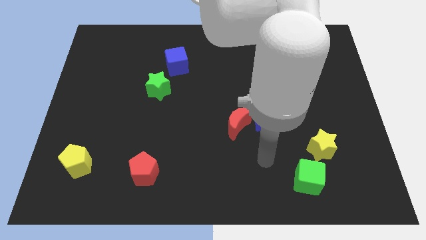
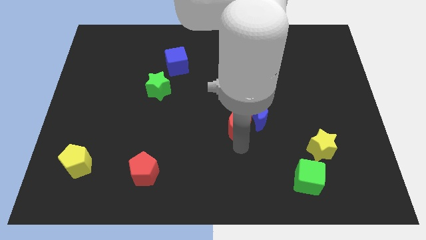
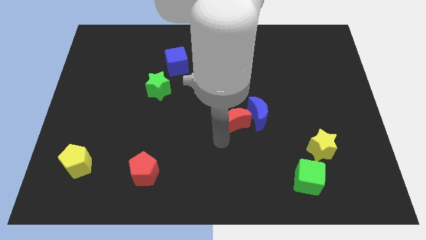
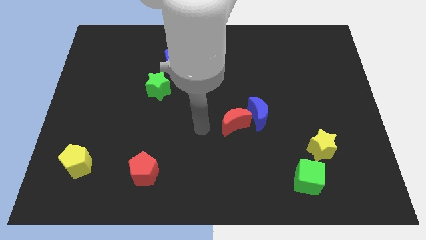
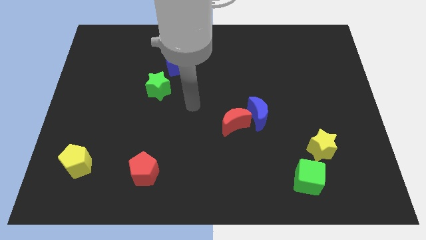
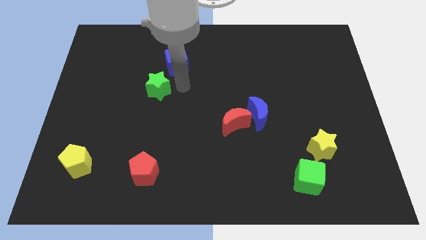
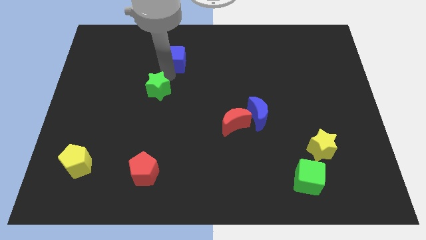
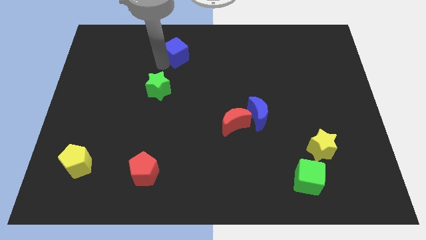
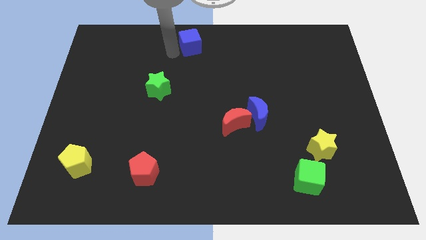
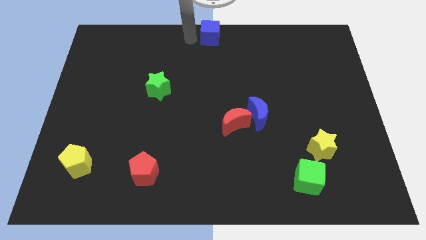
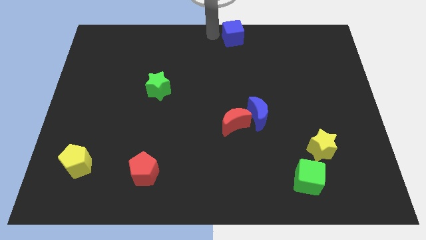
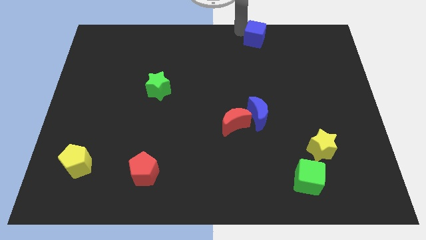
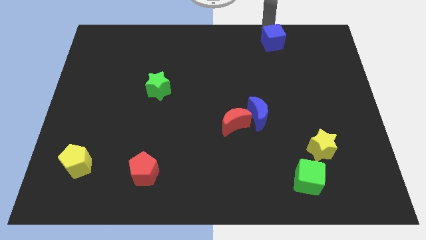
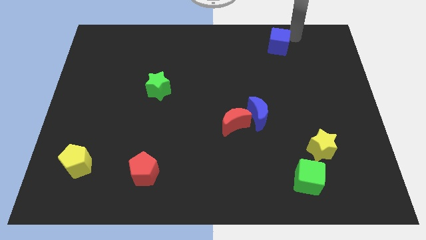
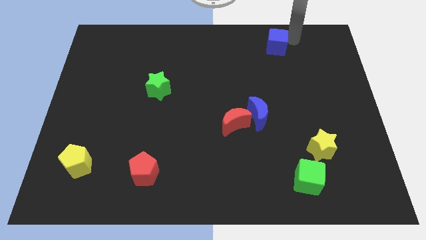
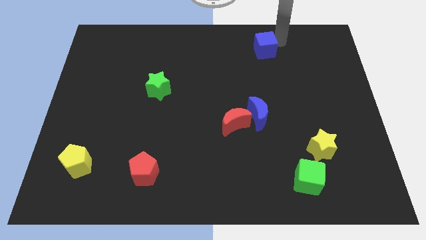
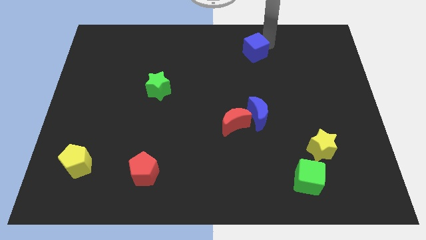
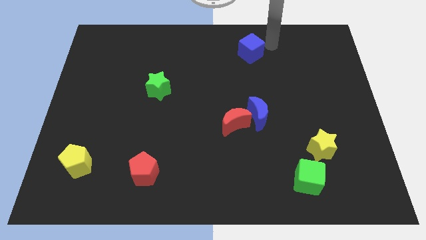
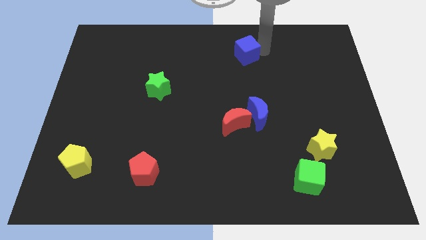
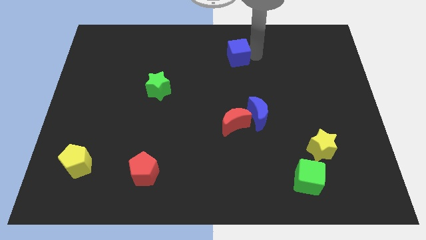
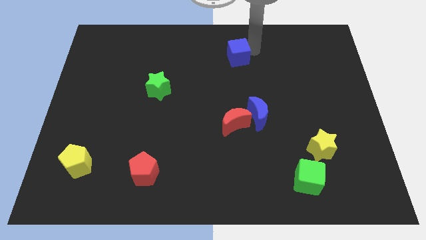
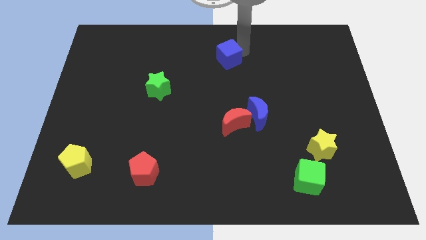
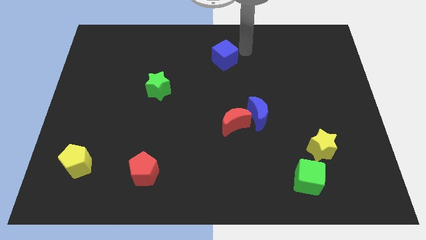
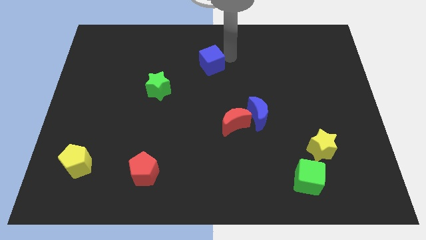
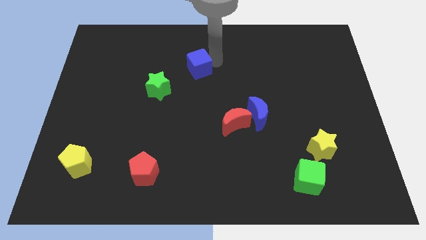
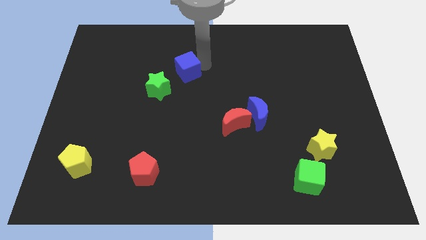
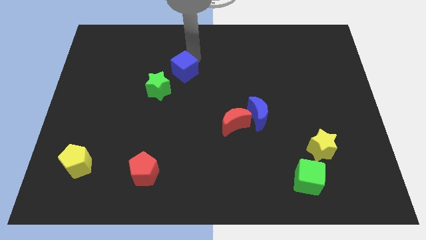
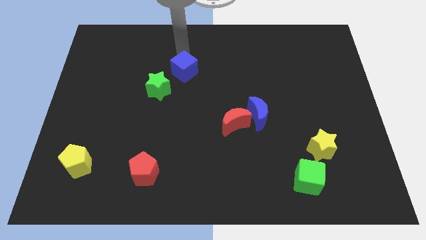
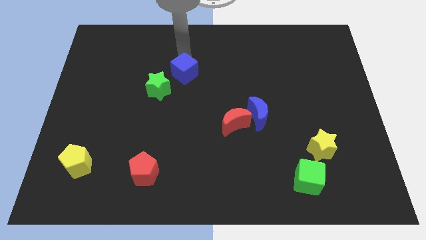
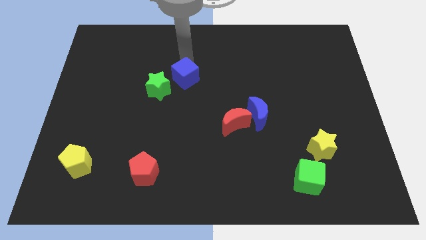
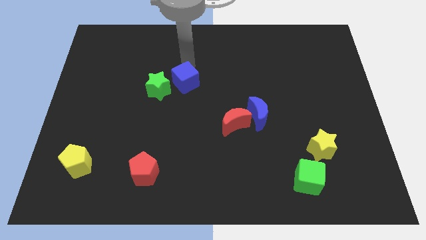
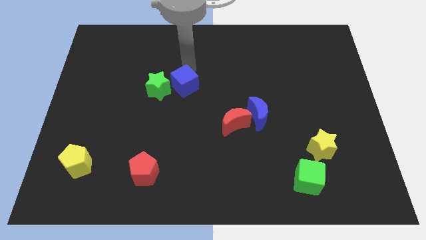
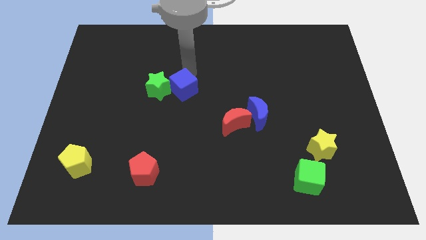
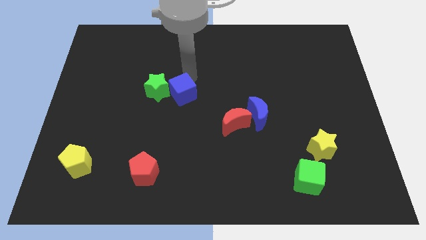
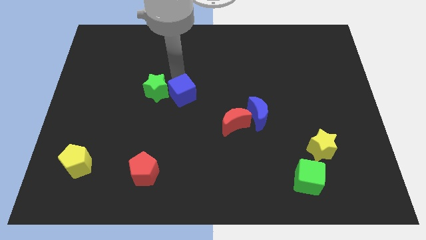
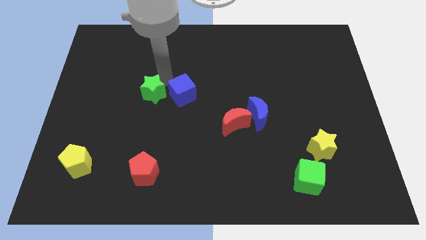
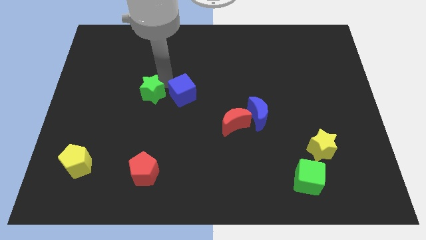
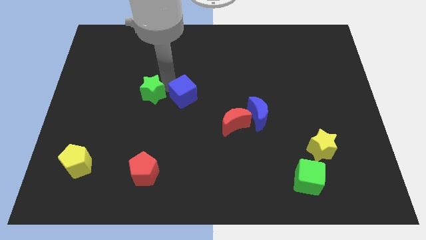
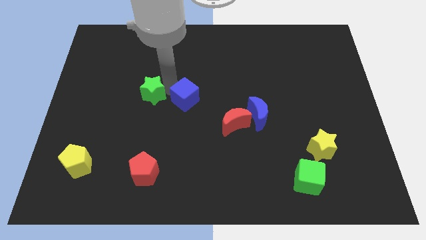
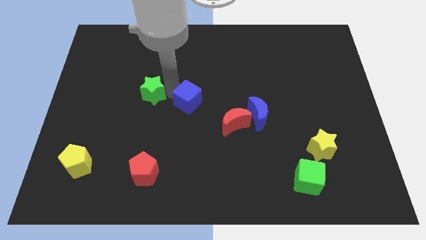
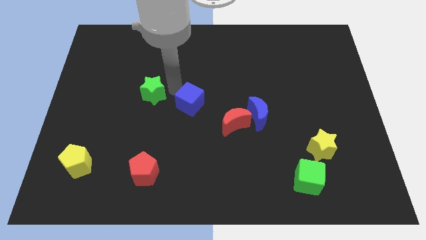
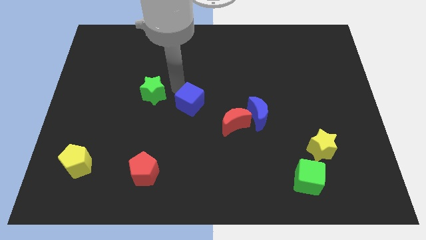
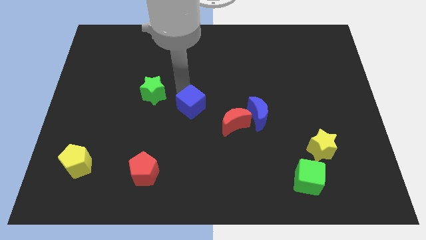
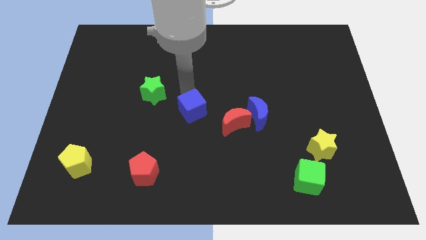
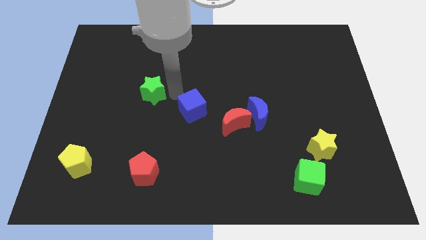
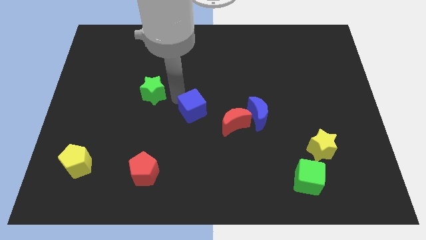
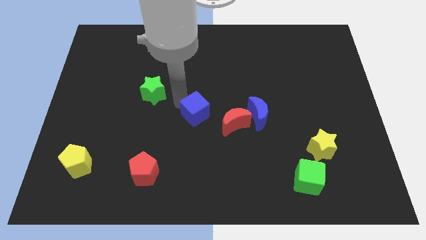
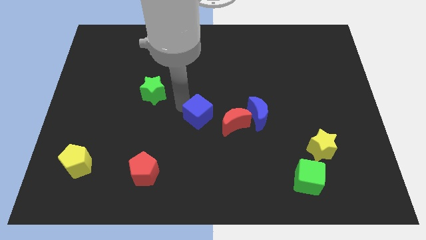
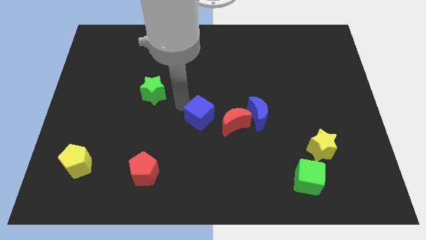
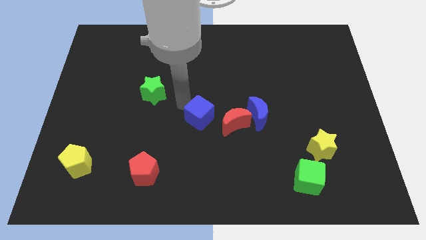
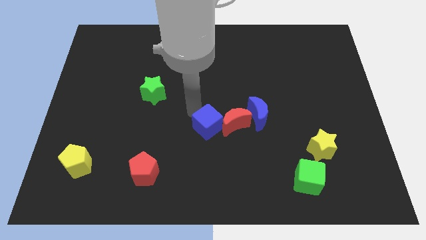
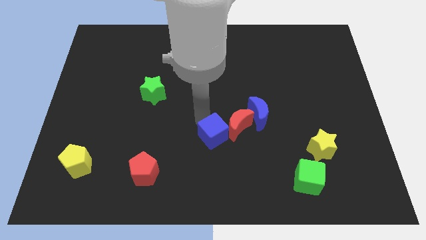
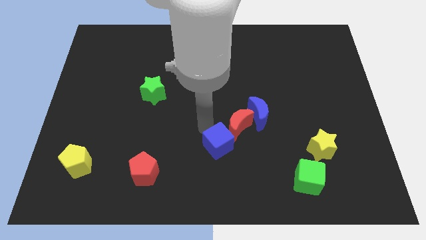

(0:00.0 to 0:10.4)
push the blue cube down and then to the right

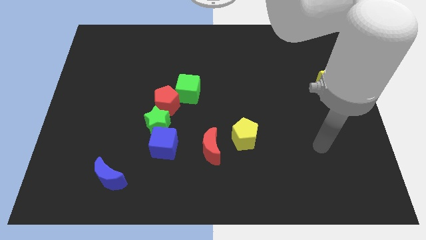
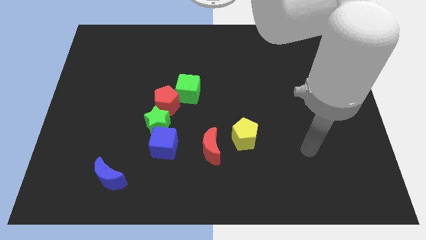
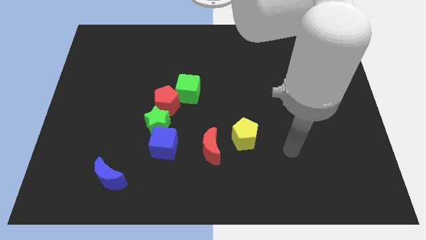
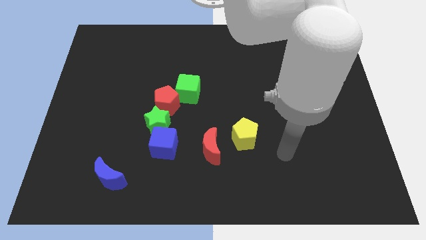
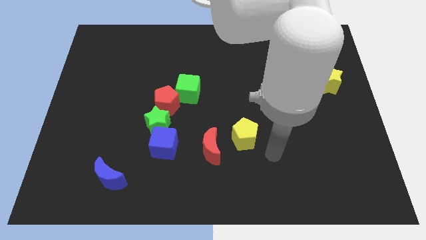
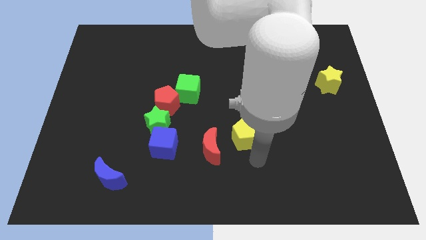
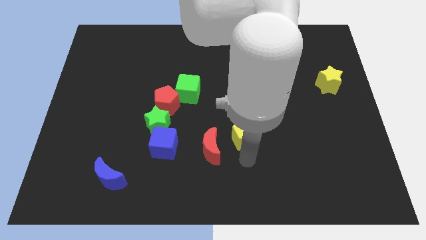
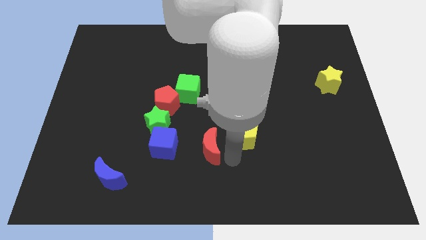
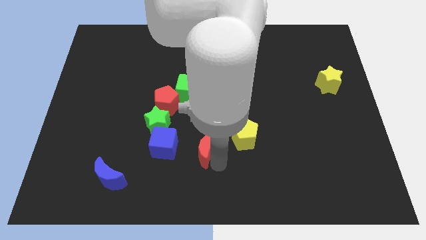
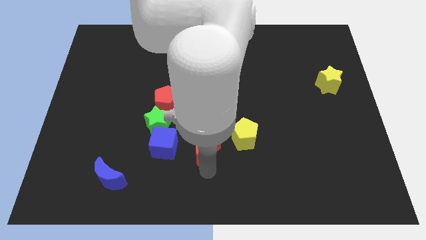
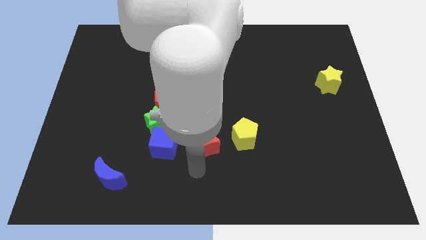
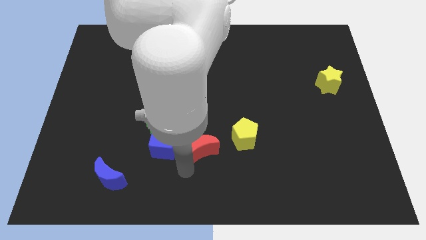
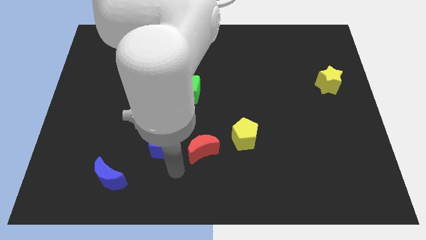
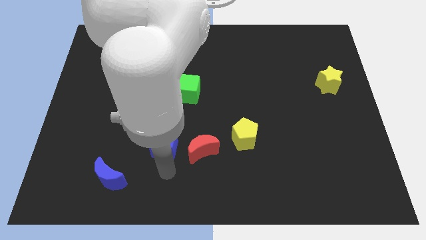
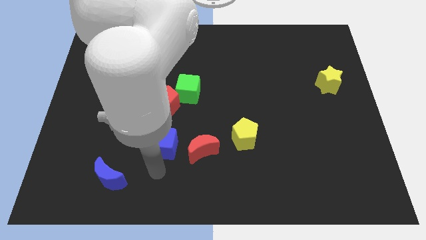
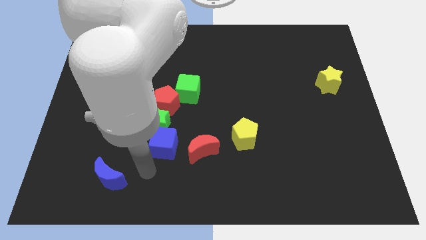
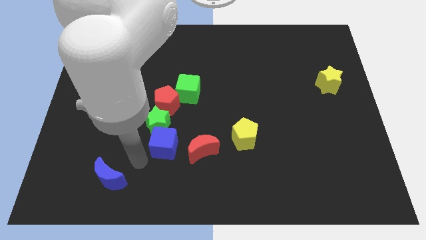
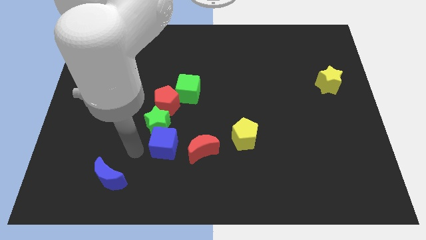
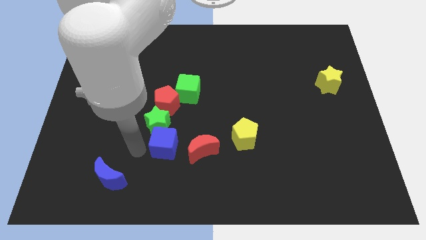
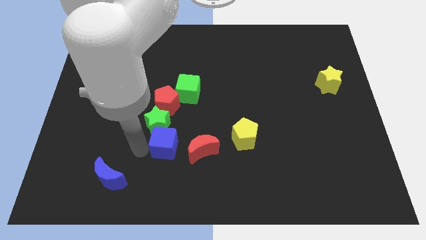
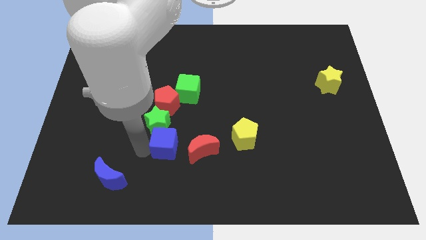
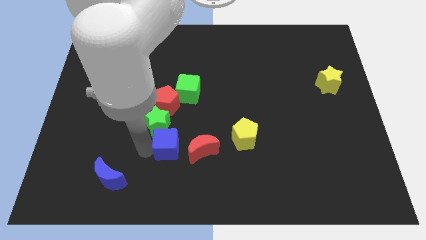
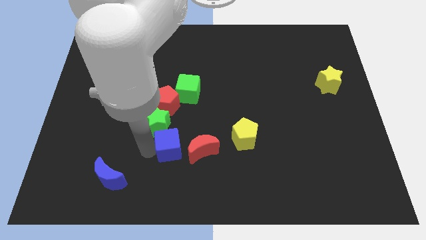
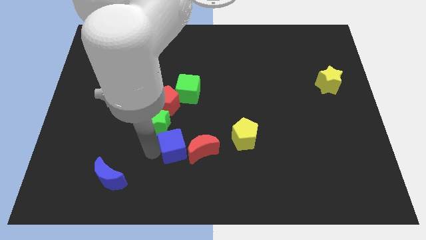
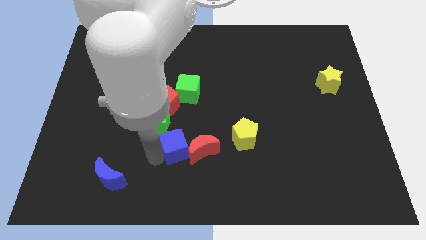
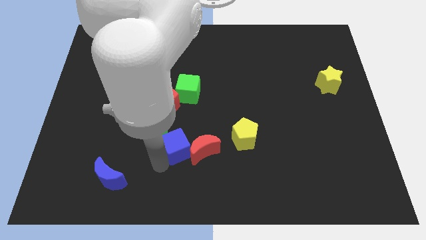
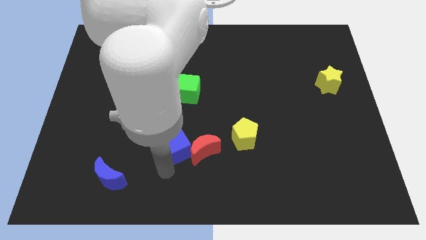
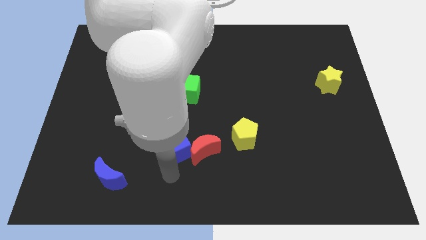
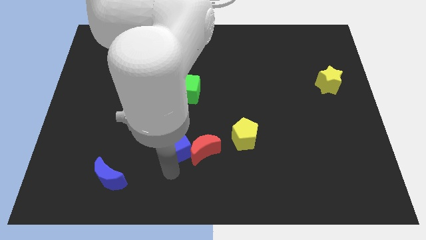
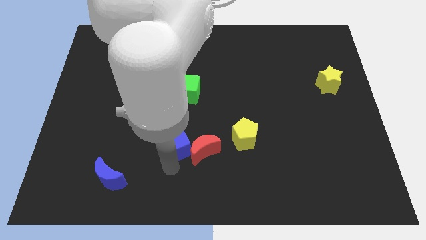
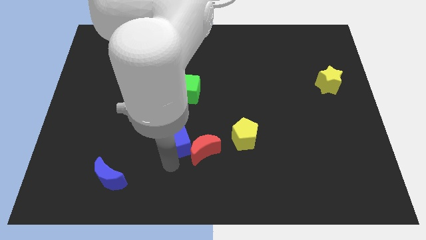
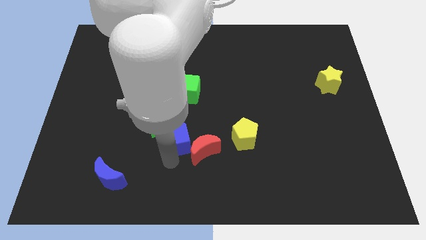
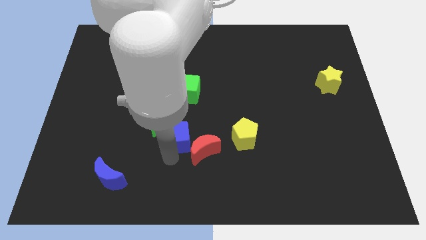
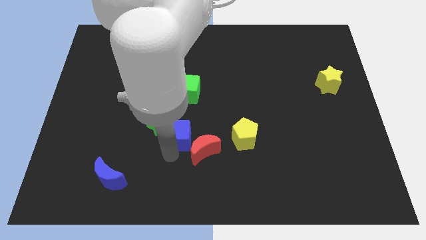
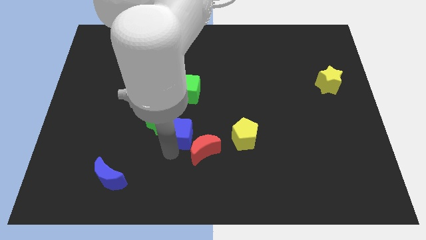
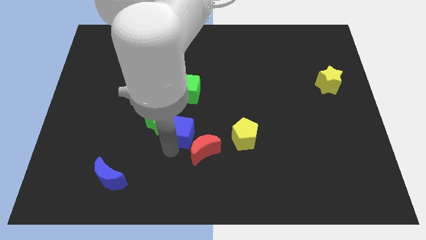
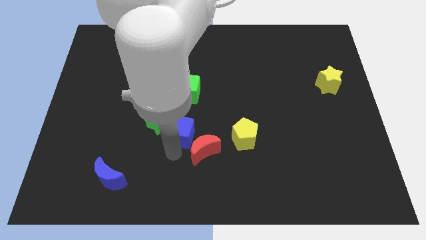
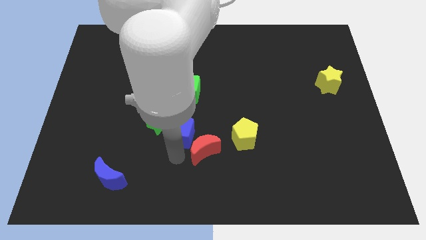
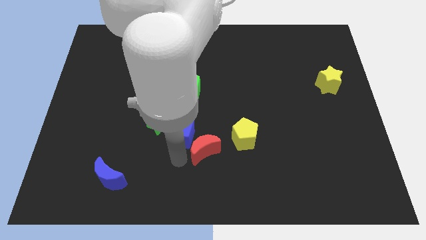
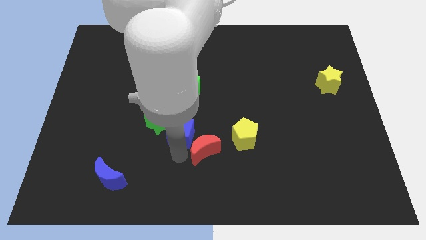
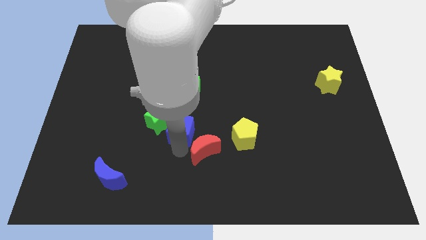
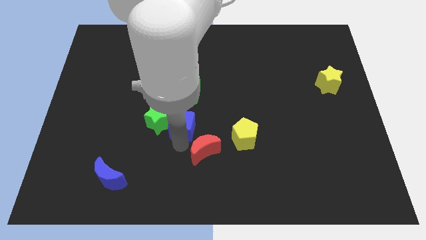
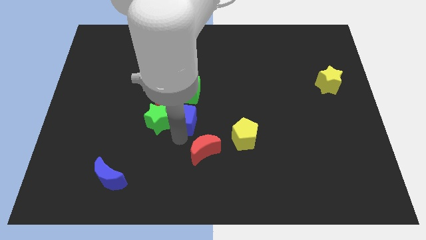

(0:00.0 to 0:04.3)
push the blue cube up and right a little
